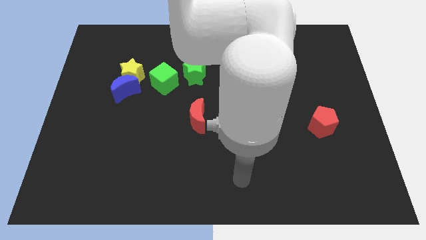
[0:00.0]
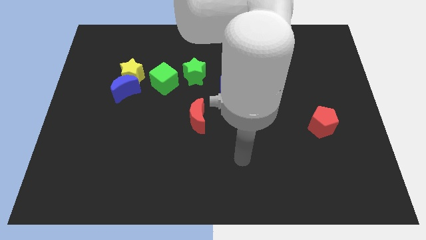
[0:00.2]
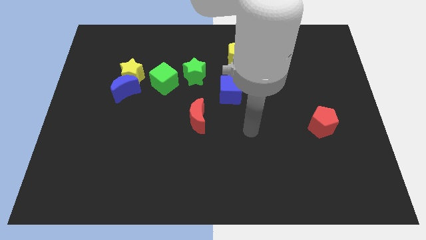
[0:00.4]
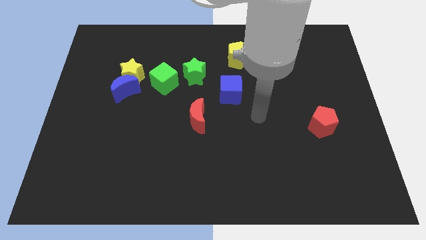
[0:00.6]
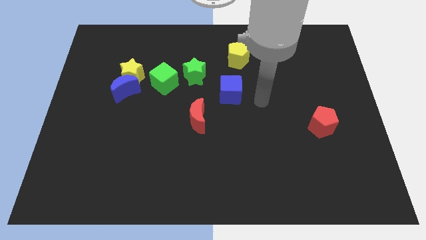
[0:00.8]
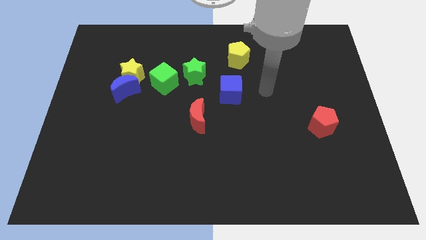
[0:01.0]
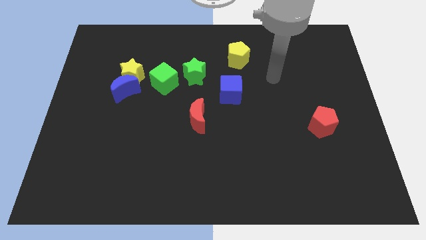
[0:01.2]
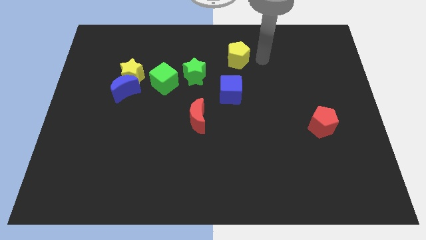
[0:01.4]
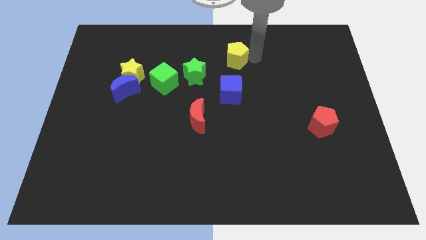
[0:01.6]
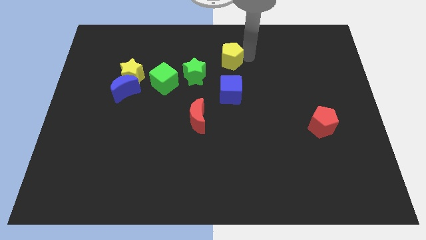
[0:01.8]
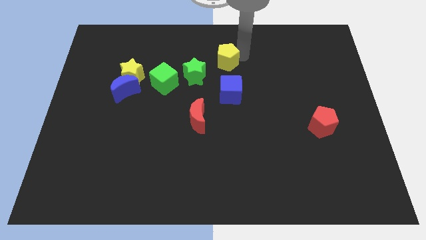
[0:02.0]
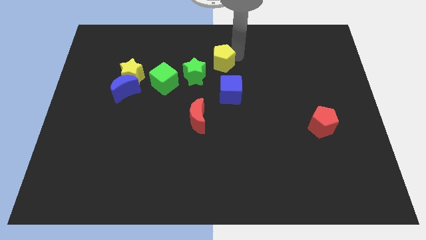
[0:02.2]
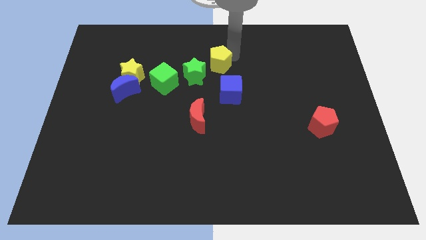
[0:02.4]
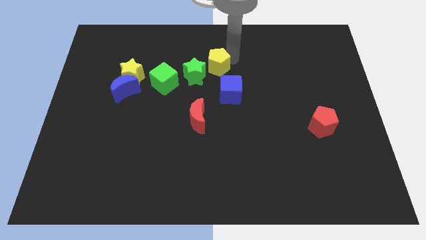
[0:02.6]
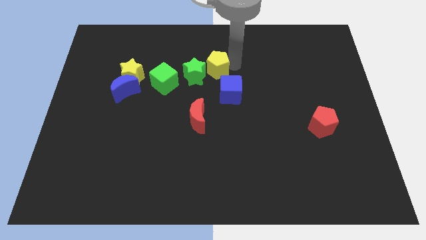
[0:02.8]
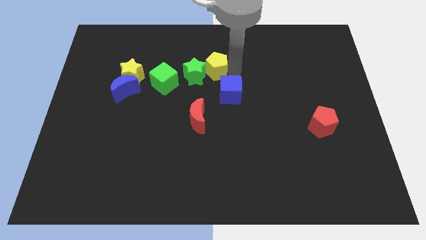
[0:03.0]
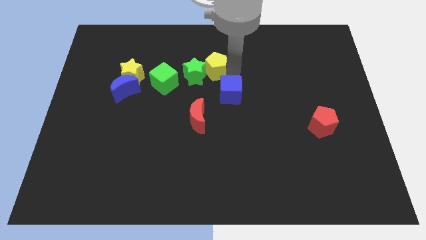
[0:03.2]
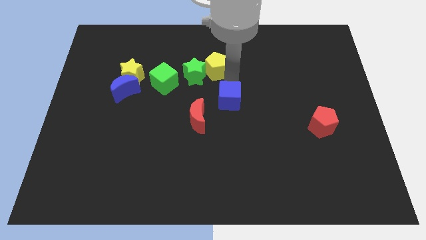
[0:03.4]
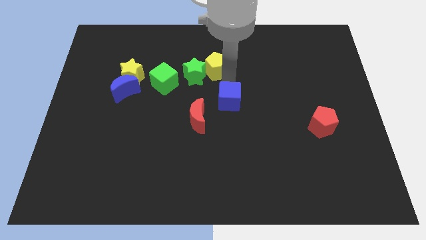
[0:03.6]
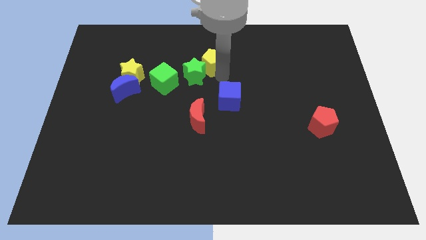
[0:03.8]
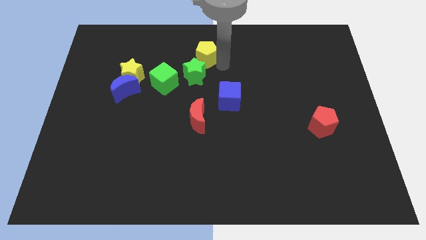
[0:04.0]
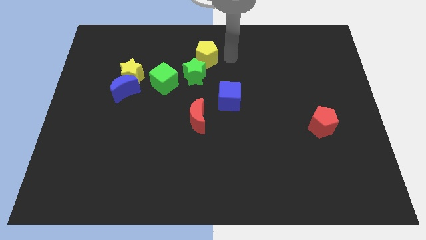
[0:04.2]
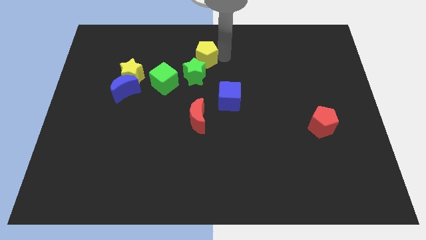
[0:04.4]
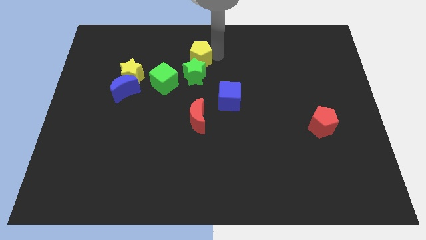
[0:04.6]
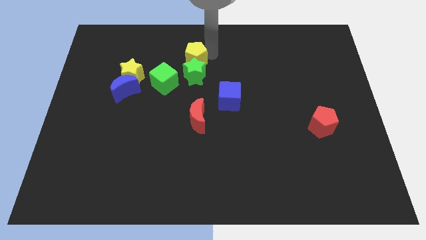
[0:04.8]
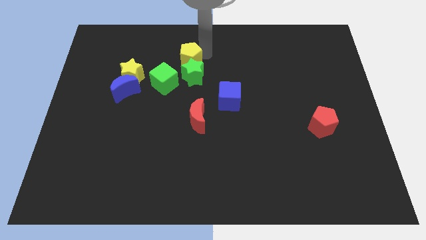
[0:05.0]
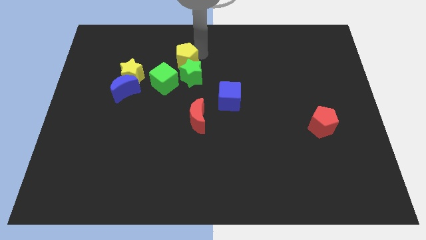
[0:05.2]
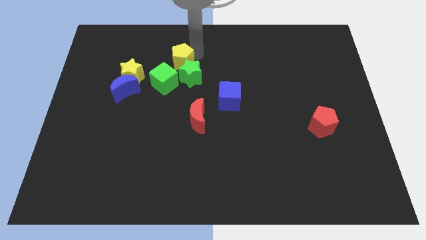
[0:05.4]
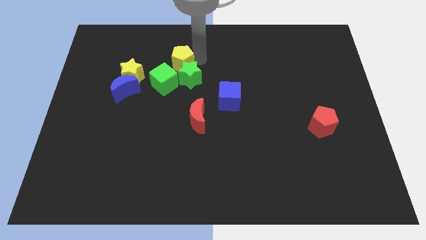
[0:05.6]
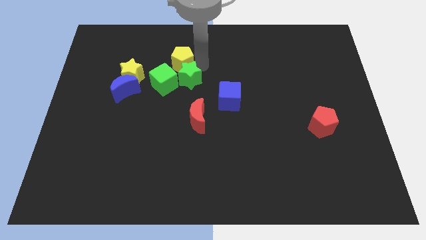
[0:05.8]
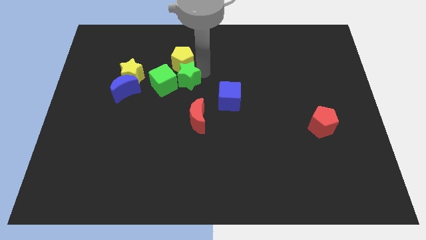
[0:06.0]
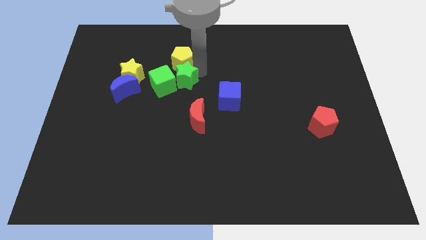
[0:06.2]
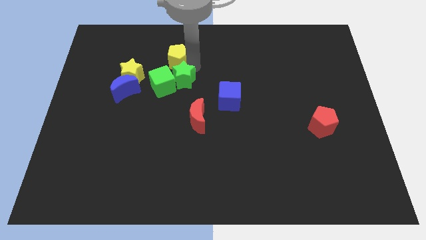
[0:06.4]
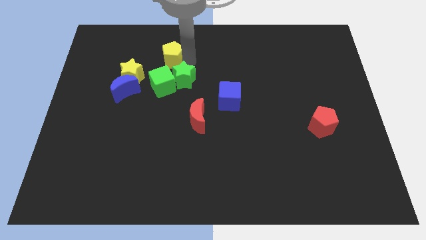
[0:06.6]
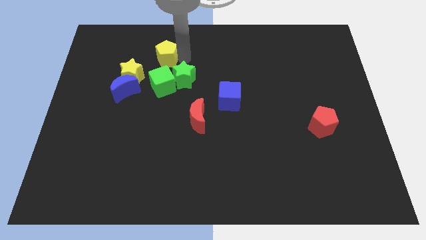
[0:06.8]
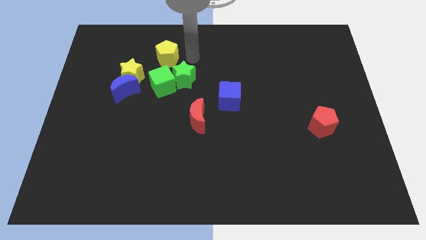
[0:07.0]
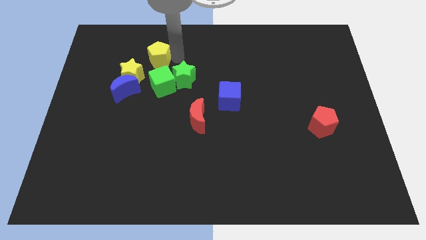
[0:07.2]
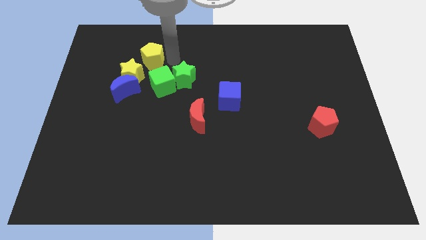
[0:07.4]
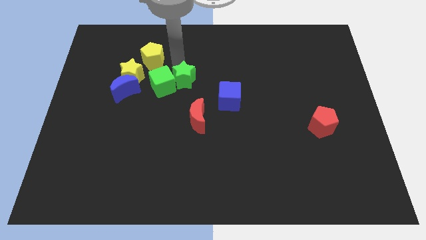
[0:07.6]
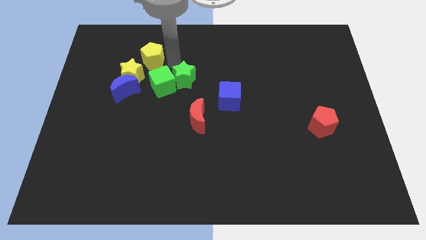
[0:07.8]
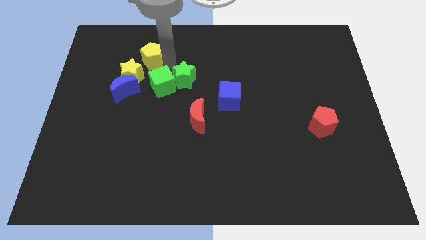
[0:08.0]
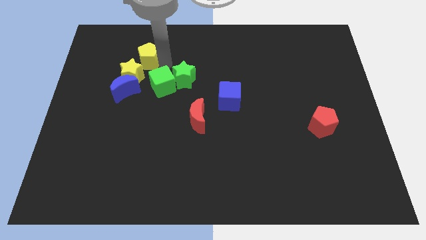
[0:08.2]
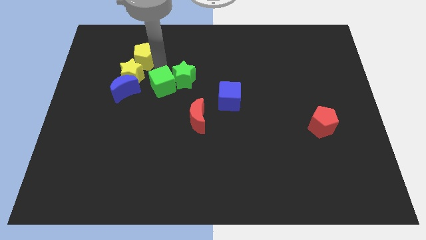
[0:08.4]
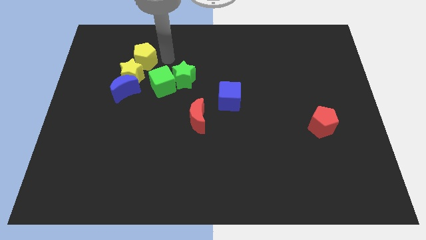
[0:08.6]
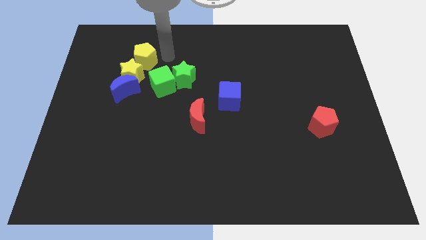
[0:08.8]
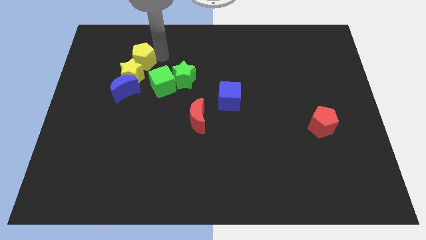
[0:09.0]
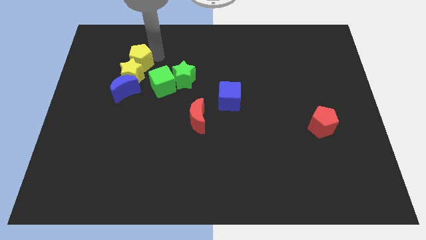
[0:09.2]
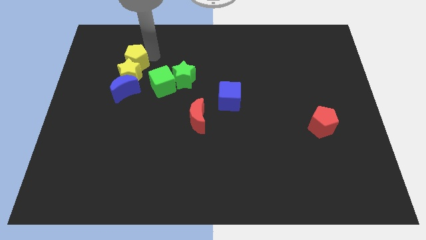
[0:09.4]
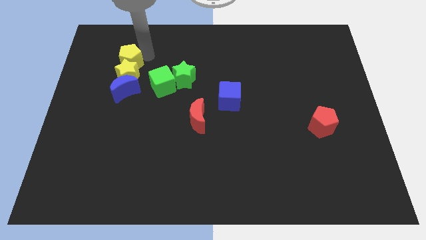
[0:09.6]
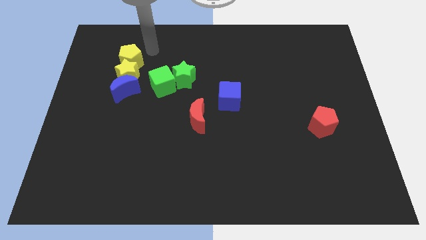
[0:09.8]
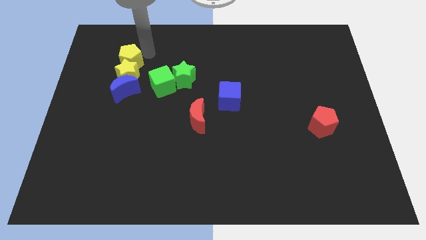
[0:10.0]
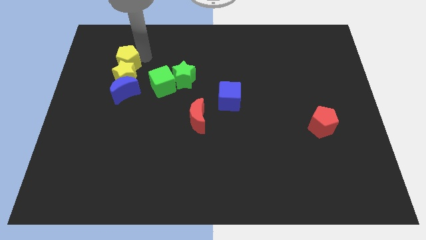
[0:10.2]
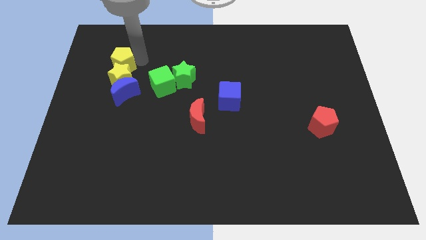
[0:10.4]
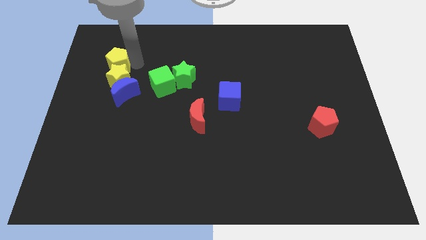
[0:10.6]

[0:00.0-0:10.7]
slide the yellow pentagon to the top left of the blue moon

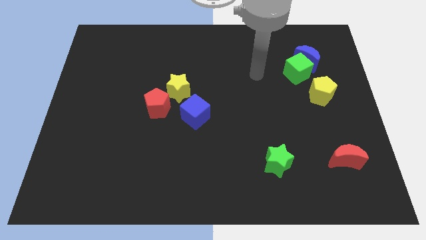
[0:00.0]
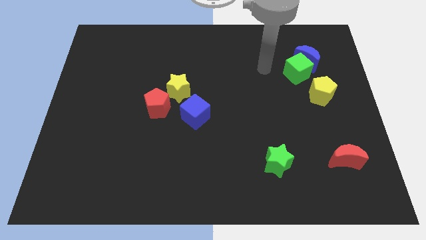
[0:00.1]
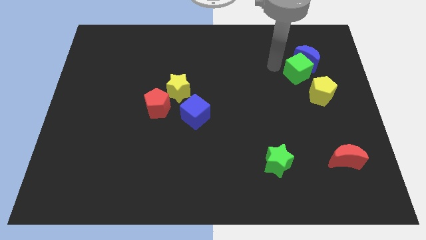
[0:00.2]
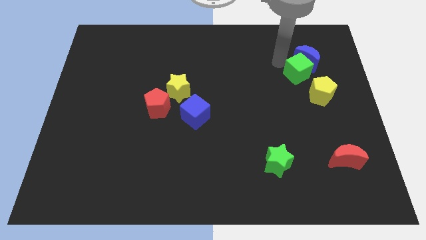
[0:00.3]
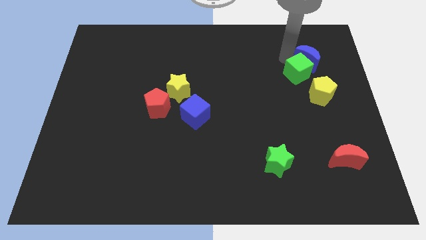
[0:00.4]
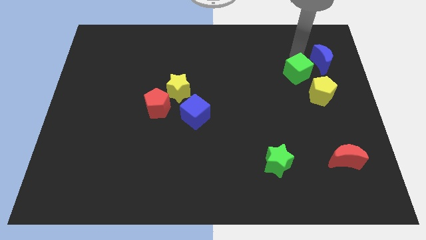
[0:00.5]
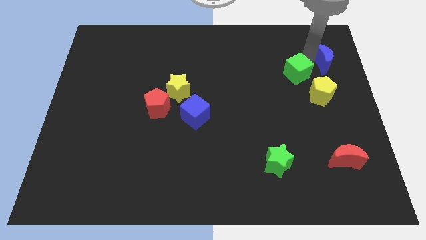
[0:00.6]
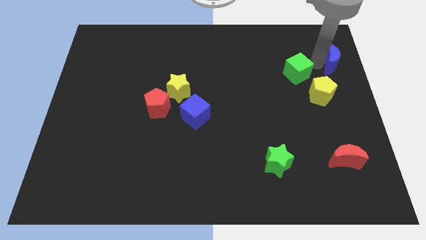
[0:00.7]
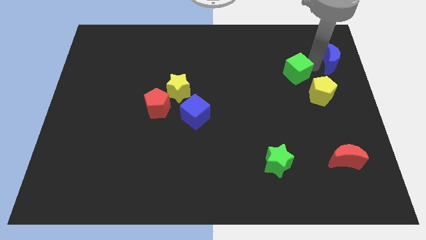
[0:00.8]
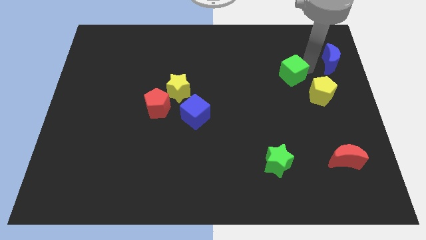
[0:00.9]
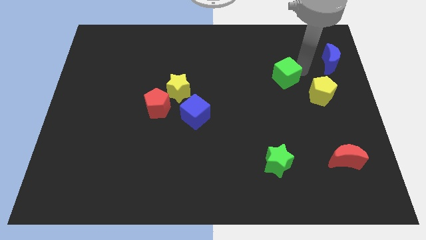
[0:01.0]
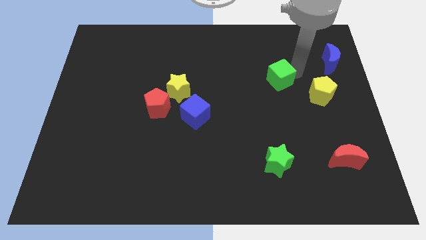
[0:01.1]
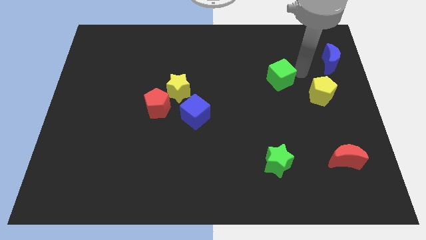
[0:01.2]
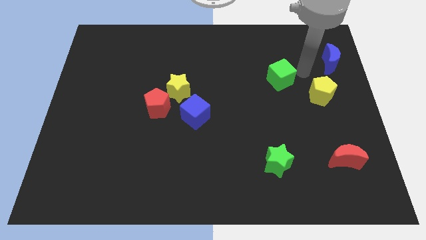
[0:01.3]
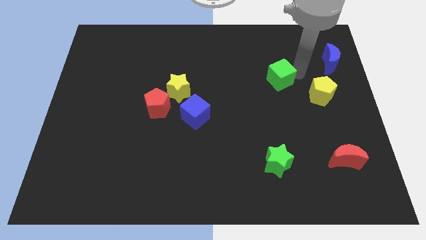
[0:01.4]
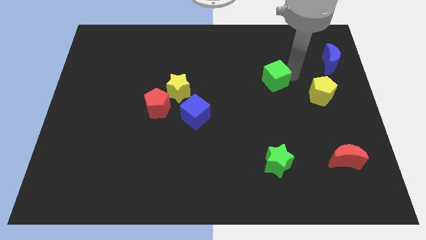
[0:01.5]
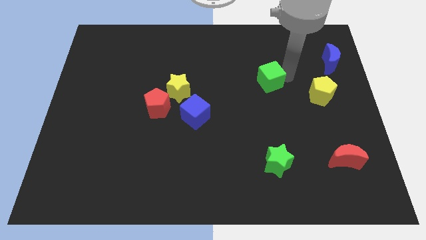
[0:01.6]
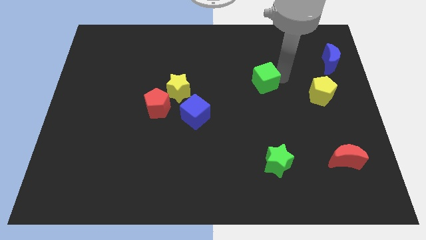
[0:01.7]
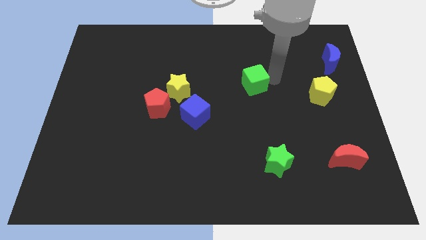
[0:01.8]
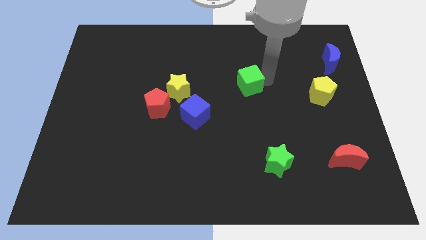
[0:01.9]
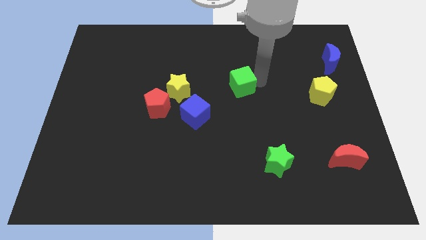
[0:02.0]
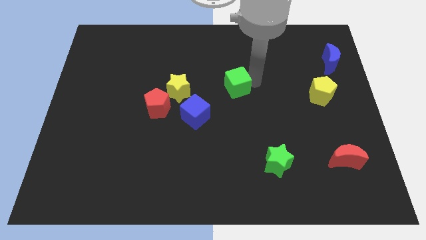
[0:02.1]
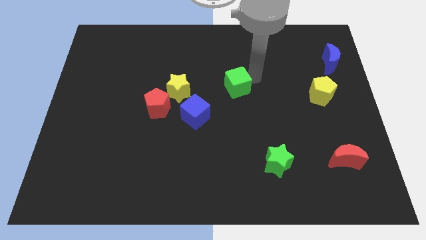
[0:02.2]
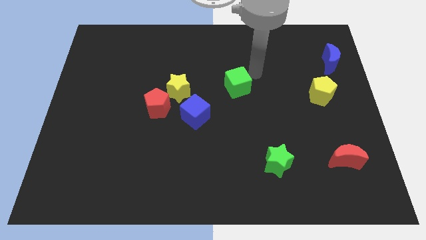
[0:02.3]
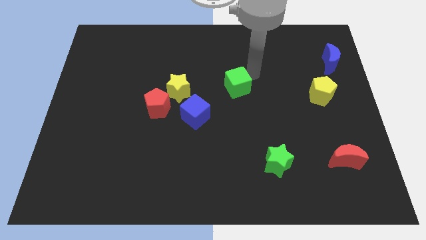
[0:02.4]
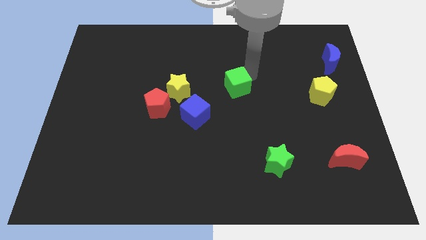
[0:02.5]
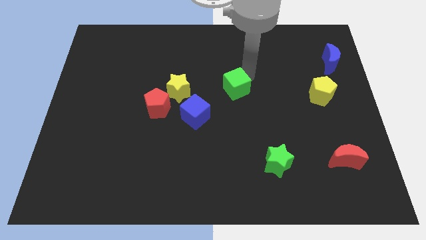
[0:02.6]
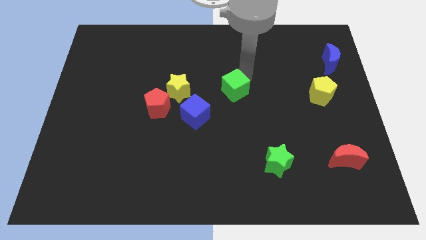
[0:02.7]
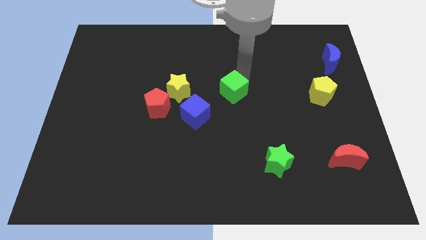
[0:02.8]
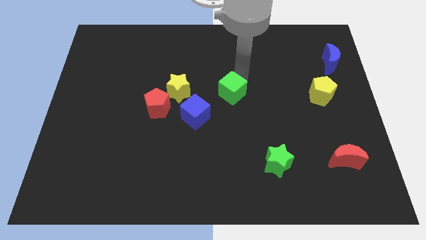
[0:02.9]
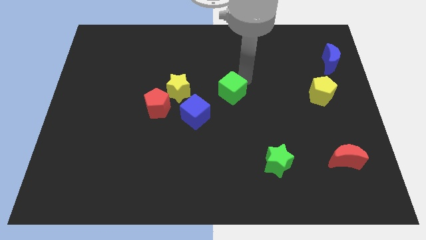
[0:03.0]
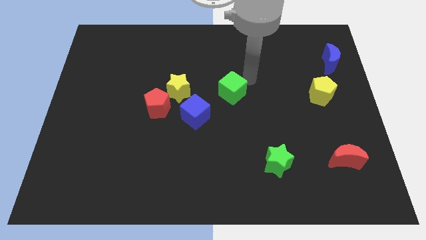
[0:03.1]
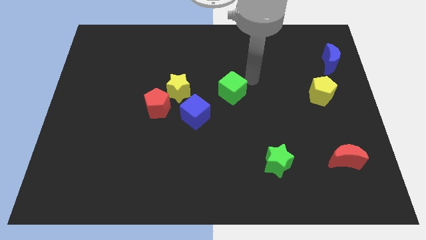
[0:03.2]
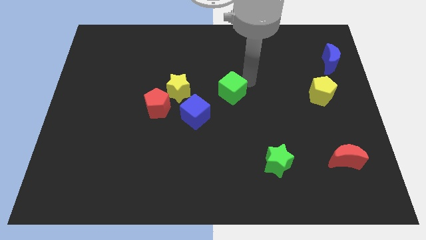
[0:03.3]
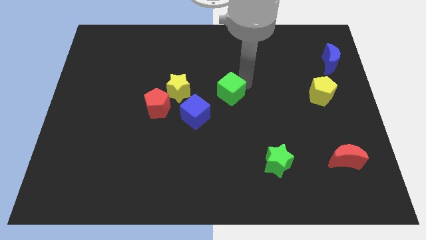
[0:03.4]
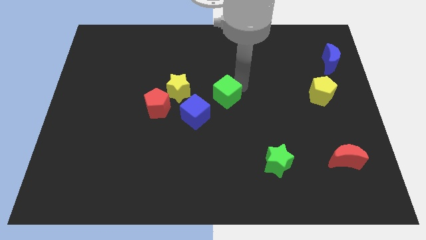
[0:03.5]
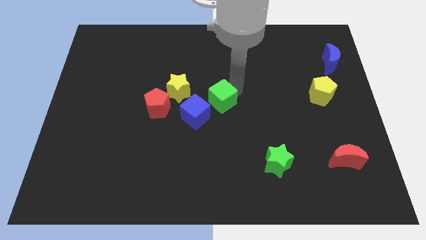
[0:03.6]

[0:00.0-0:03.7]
push the green cube to the right side of the red pentagon
